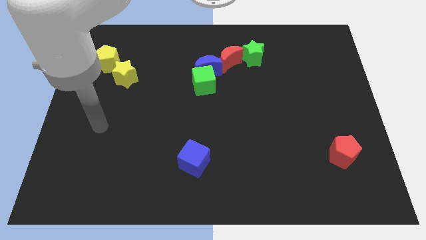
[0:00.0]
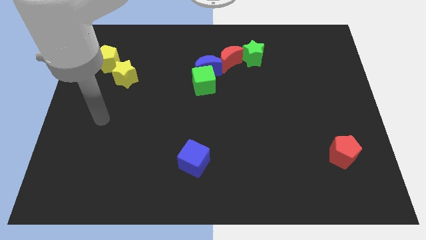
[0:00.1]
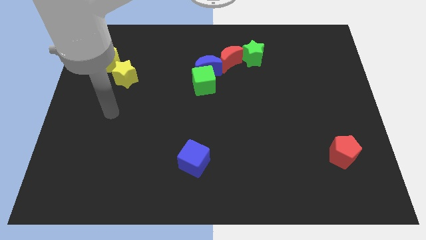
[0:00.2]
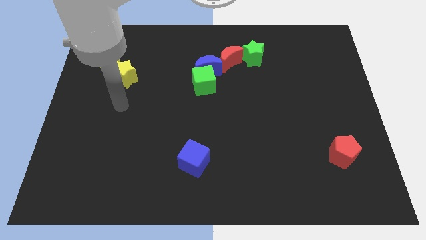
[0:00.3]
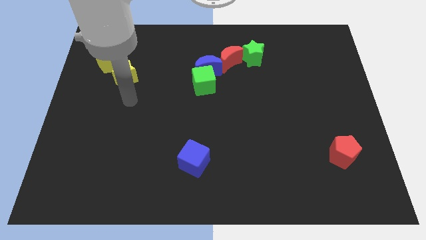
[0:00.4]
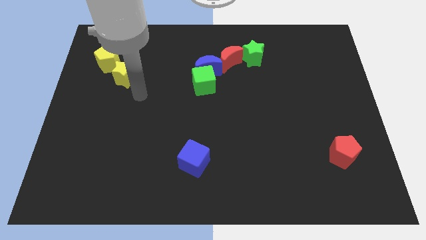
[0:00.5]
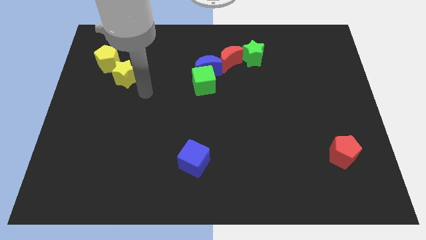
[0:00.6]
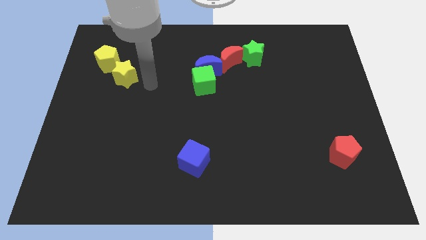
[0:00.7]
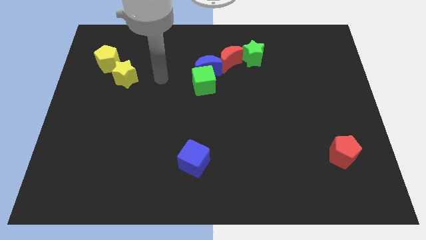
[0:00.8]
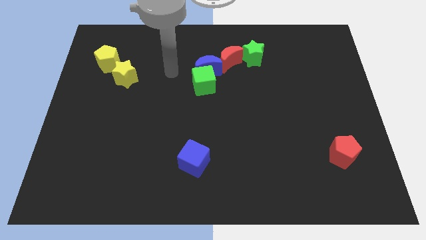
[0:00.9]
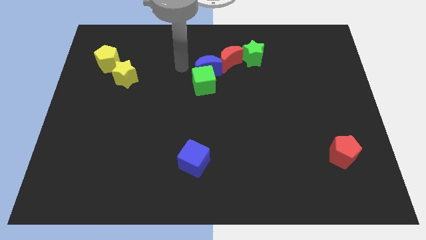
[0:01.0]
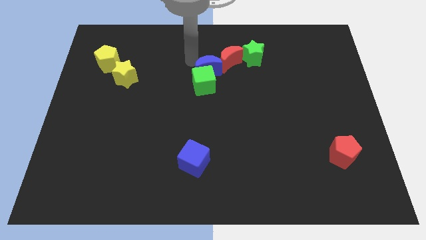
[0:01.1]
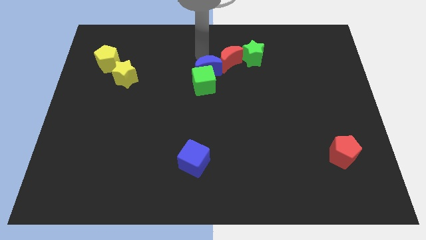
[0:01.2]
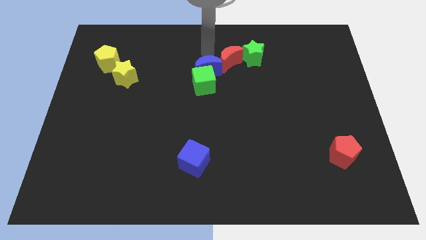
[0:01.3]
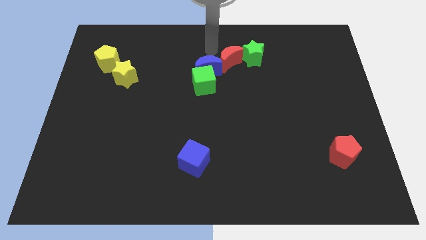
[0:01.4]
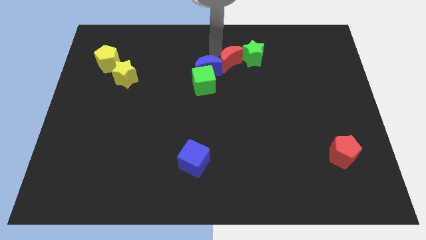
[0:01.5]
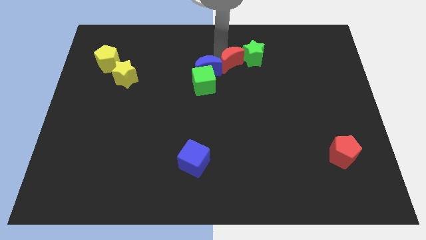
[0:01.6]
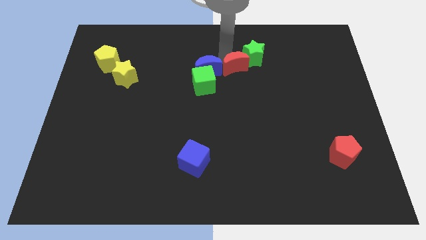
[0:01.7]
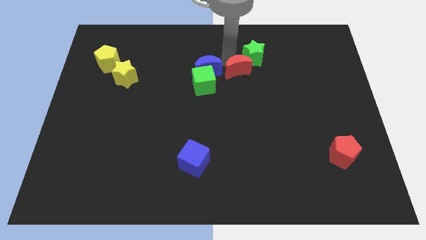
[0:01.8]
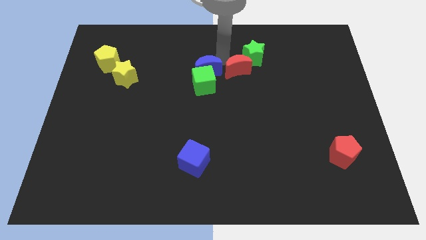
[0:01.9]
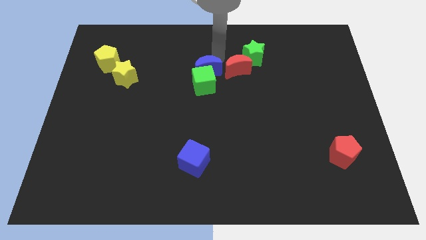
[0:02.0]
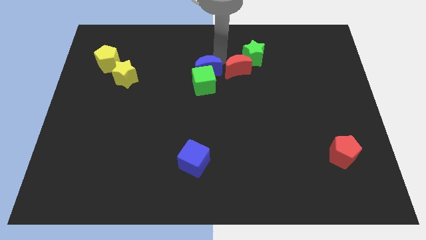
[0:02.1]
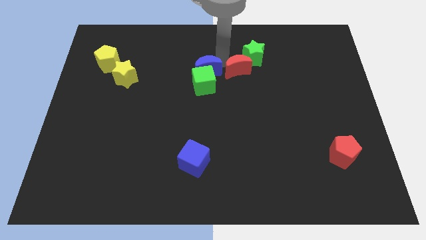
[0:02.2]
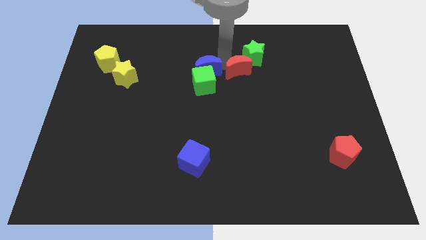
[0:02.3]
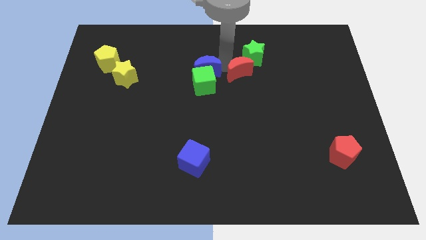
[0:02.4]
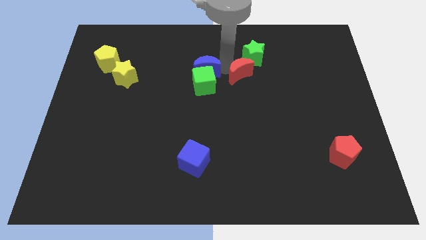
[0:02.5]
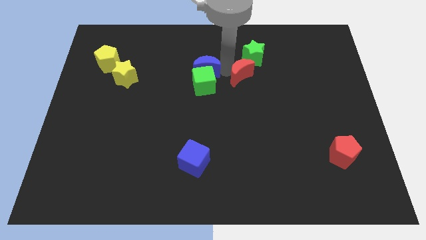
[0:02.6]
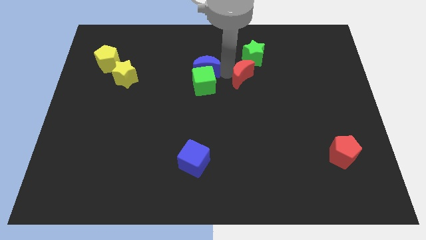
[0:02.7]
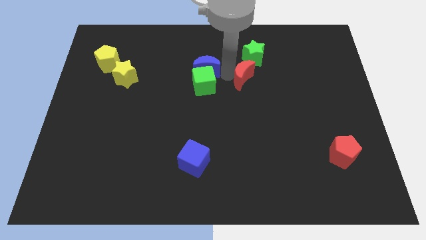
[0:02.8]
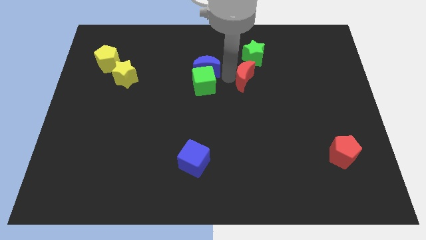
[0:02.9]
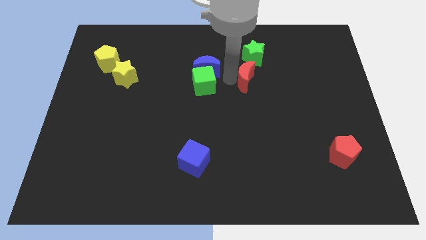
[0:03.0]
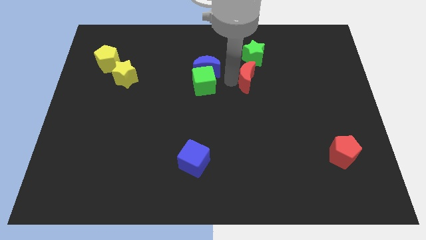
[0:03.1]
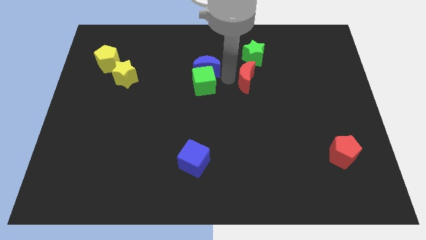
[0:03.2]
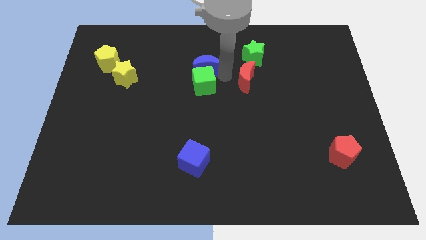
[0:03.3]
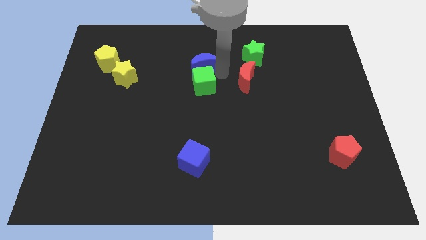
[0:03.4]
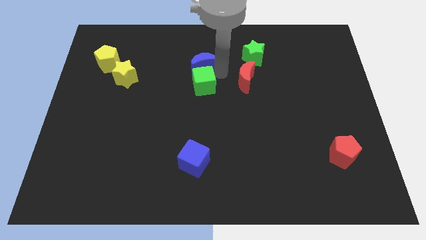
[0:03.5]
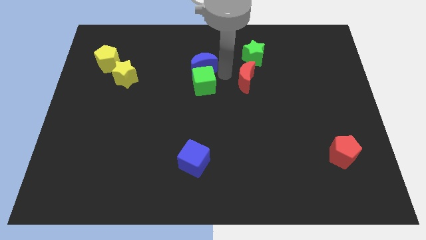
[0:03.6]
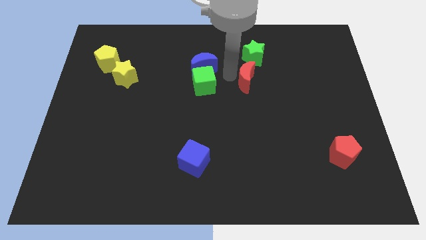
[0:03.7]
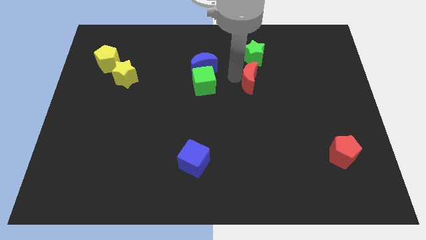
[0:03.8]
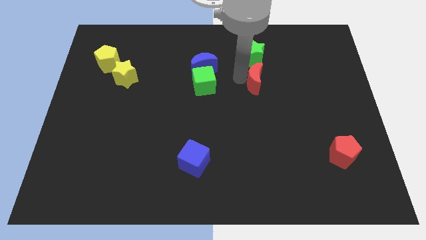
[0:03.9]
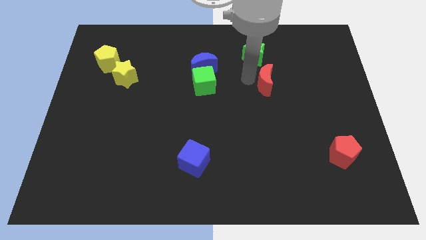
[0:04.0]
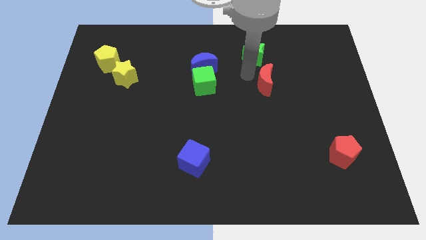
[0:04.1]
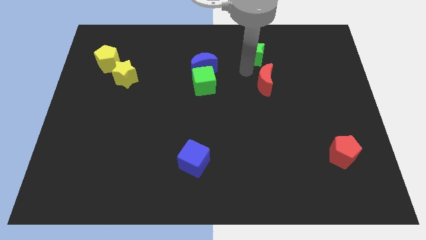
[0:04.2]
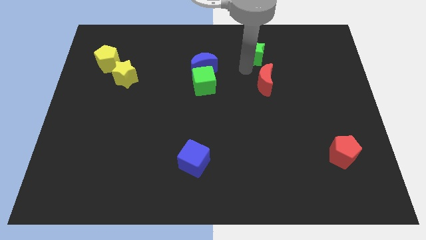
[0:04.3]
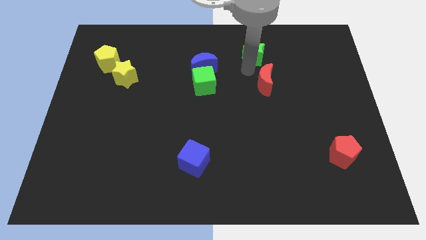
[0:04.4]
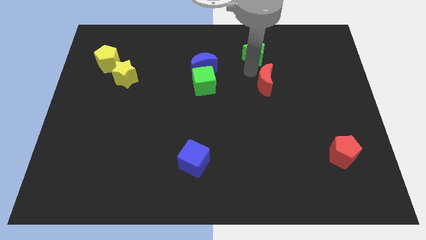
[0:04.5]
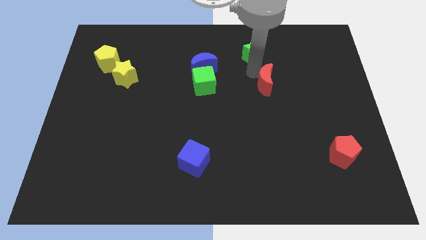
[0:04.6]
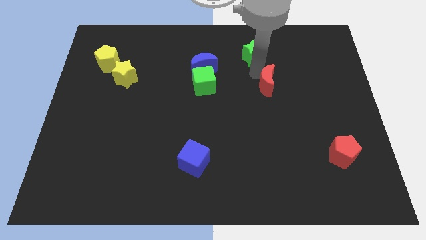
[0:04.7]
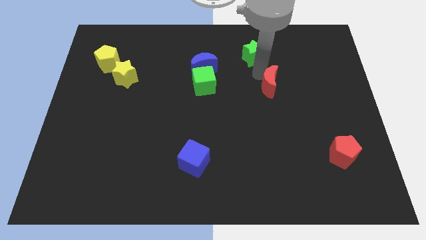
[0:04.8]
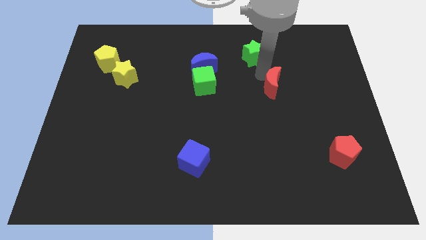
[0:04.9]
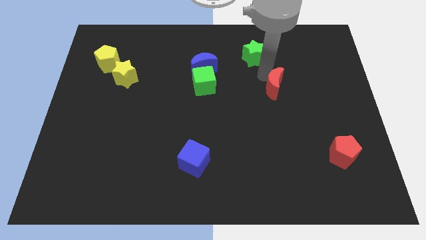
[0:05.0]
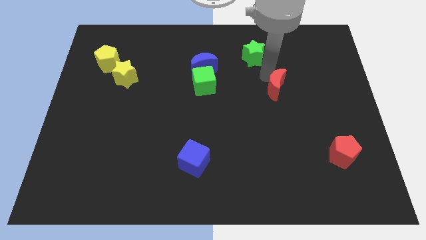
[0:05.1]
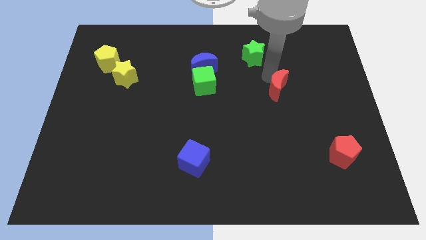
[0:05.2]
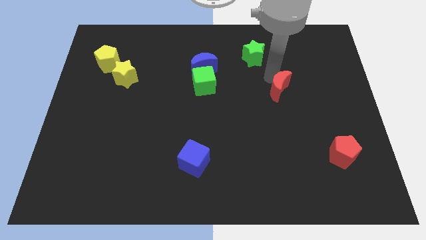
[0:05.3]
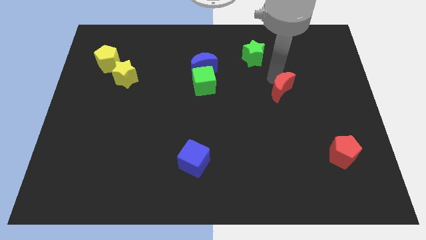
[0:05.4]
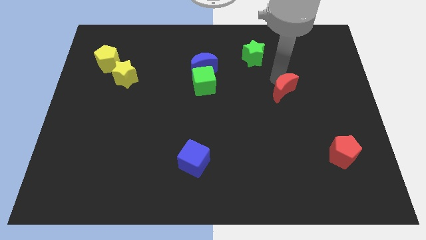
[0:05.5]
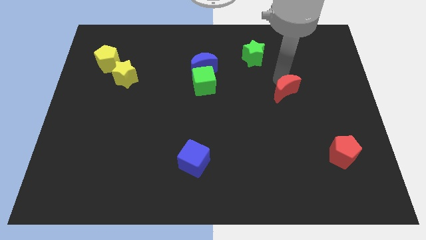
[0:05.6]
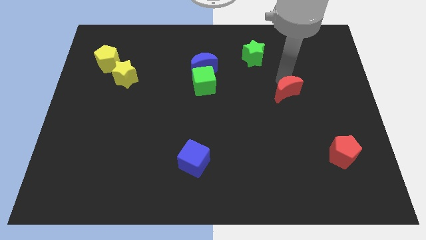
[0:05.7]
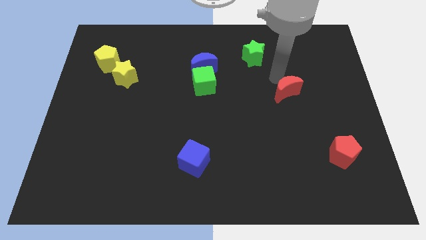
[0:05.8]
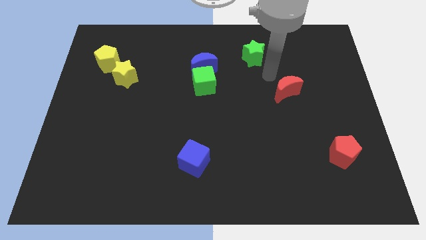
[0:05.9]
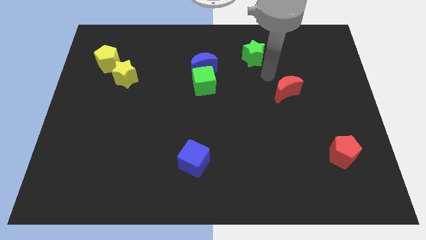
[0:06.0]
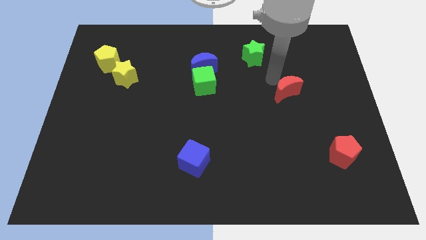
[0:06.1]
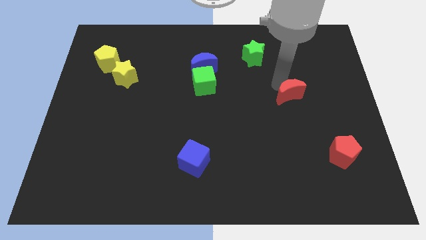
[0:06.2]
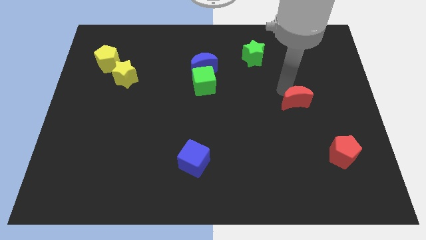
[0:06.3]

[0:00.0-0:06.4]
slide the red moon diagonally downwards and to the right

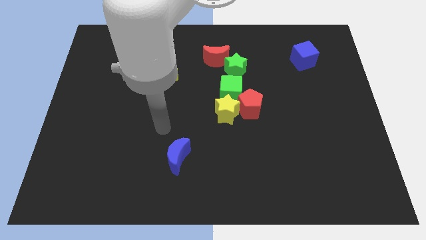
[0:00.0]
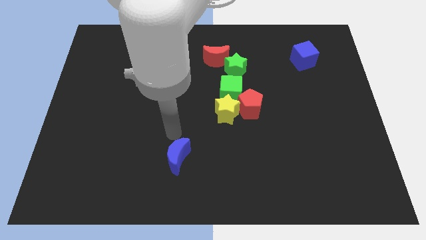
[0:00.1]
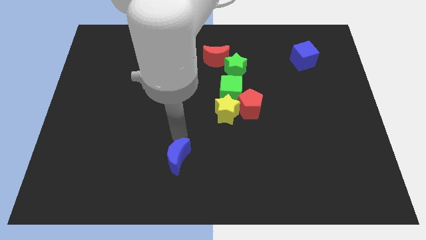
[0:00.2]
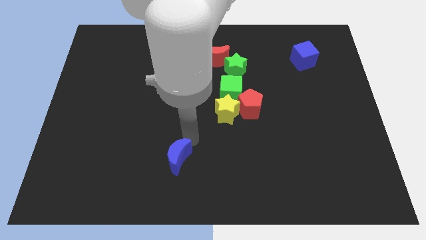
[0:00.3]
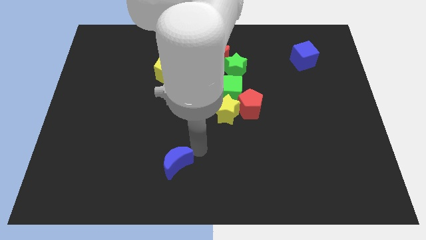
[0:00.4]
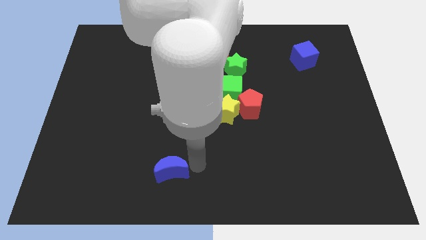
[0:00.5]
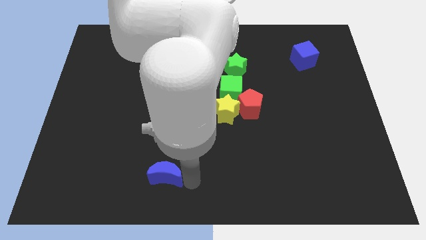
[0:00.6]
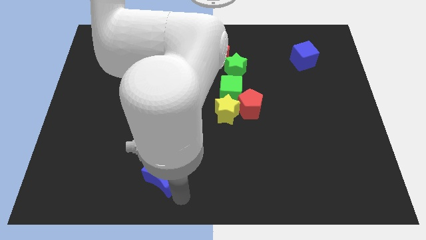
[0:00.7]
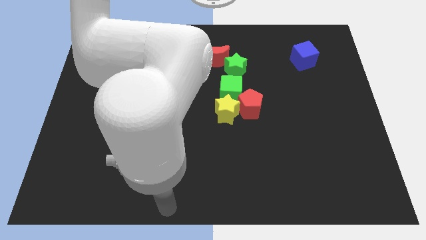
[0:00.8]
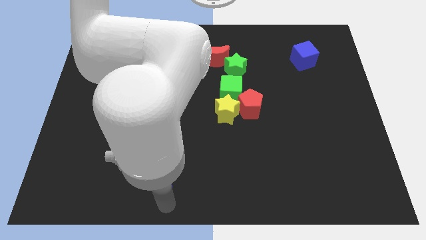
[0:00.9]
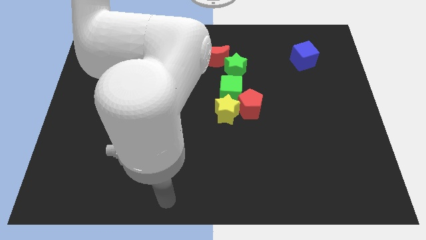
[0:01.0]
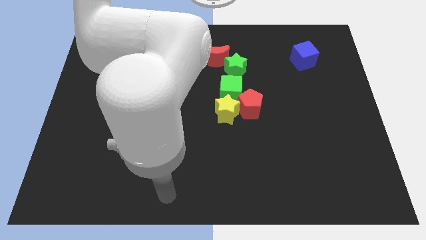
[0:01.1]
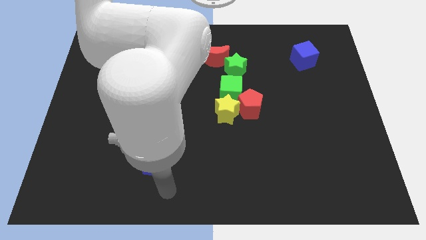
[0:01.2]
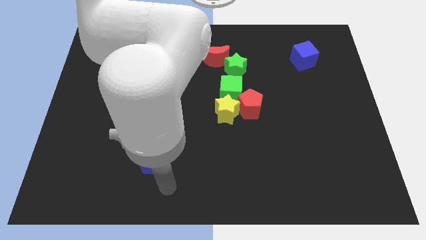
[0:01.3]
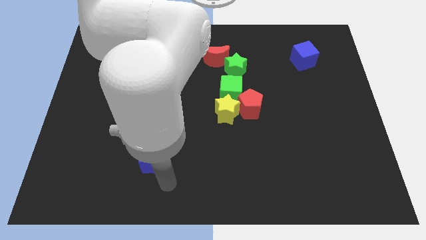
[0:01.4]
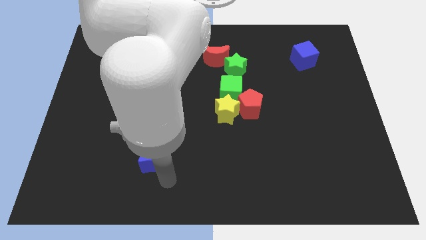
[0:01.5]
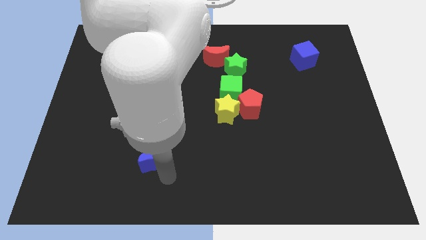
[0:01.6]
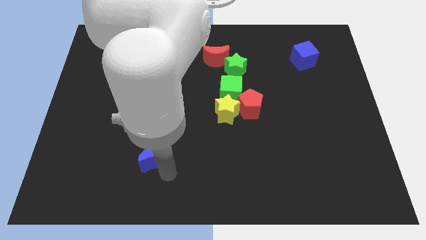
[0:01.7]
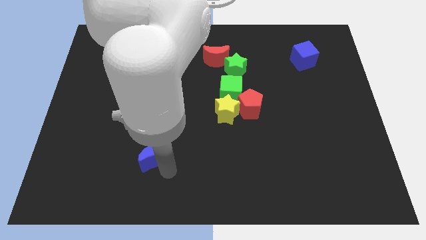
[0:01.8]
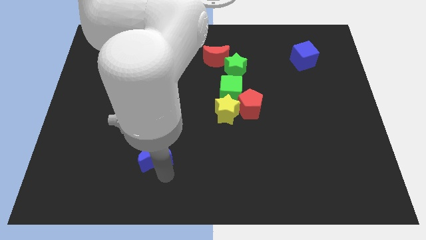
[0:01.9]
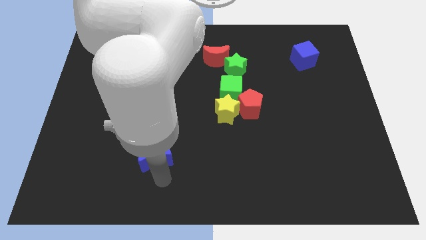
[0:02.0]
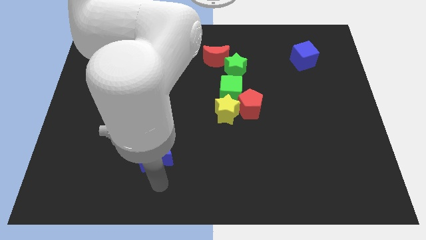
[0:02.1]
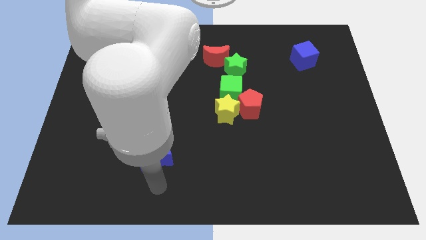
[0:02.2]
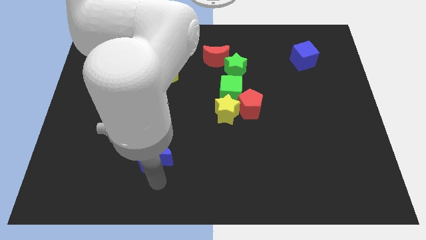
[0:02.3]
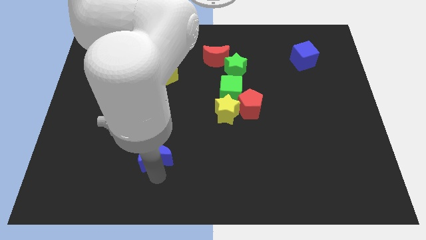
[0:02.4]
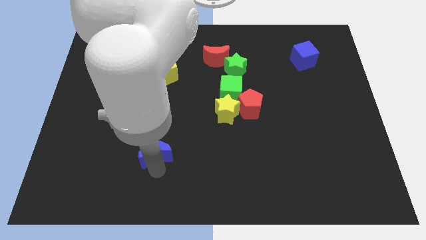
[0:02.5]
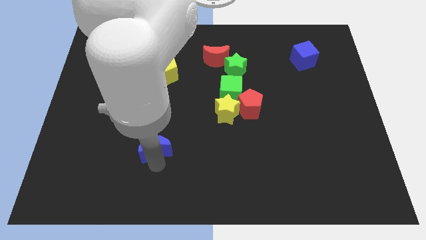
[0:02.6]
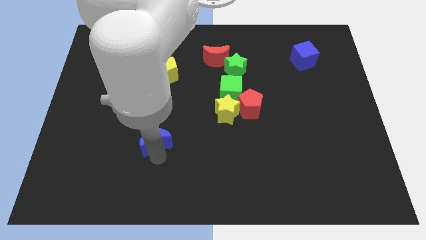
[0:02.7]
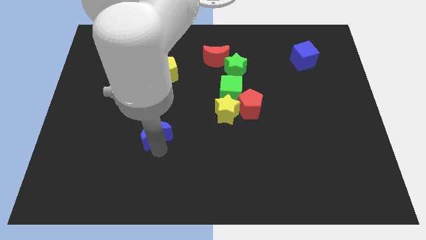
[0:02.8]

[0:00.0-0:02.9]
push the blue moon somewhat diagonally upwards and to the left
